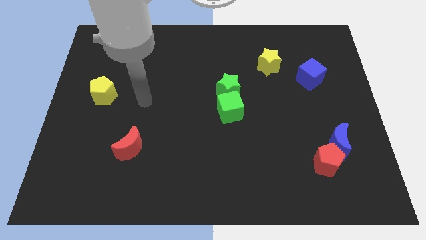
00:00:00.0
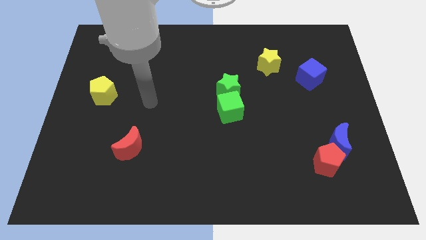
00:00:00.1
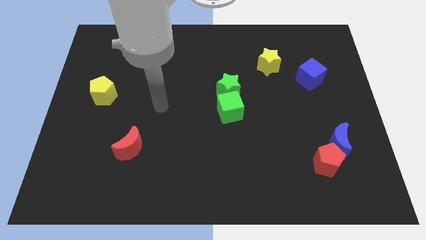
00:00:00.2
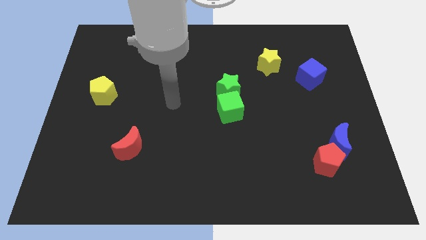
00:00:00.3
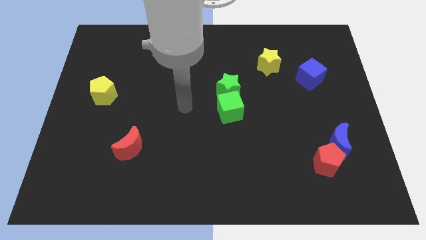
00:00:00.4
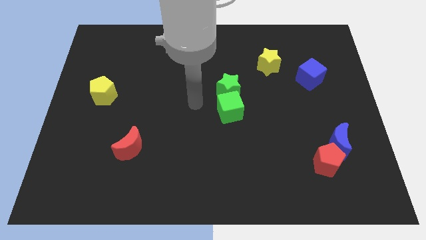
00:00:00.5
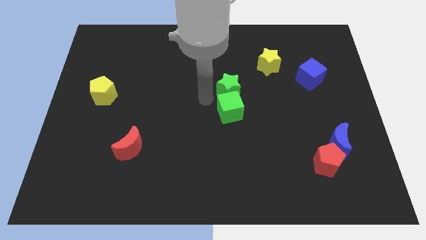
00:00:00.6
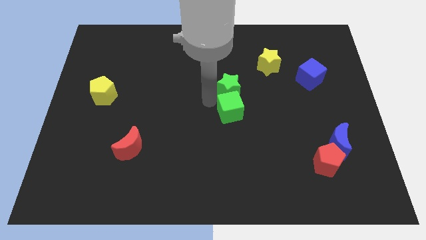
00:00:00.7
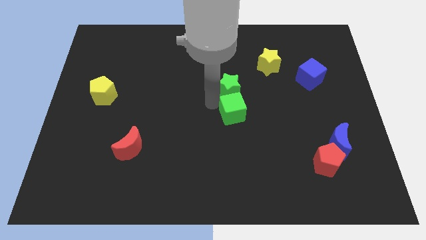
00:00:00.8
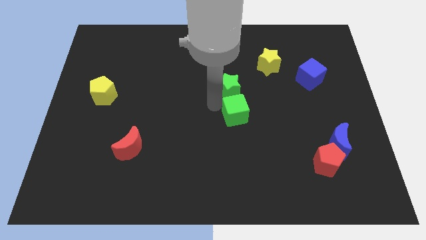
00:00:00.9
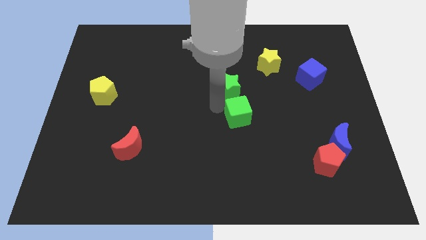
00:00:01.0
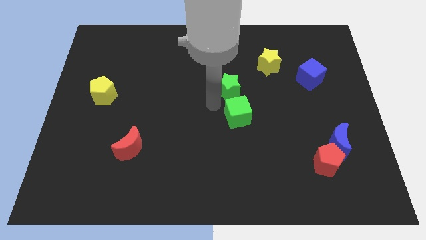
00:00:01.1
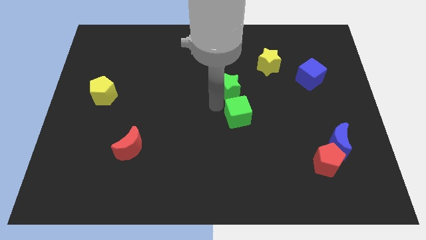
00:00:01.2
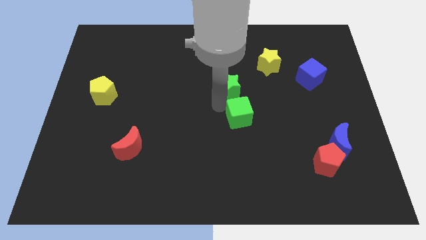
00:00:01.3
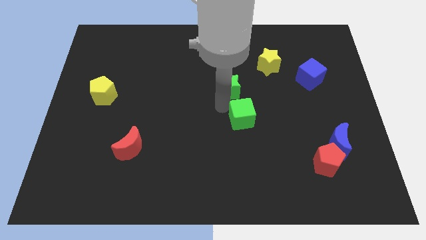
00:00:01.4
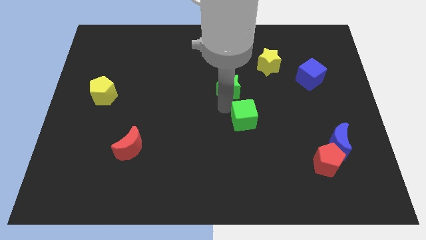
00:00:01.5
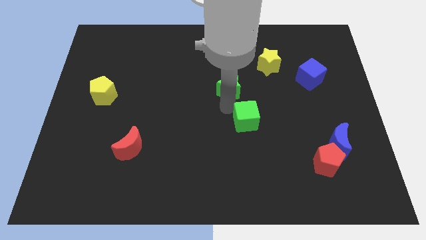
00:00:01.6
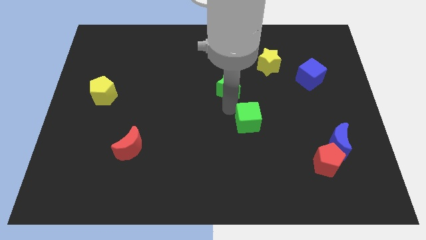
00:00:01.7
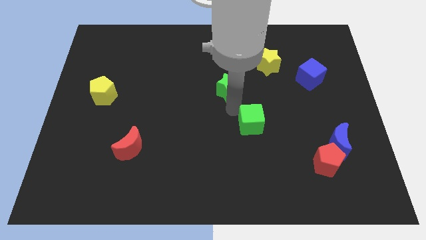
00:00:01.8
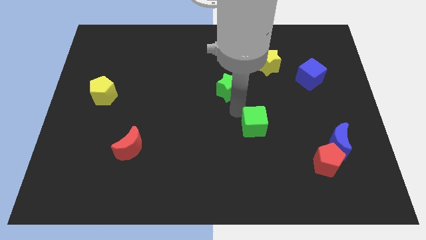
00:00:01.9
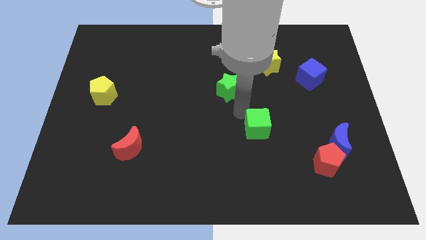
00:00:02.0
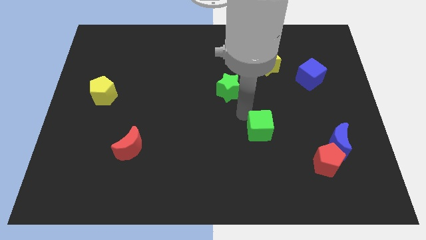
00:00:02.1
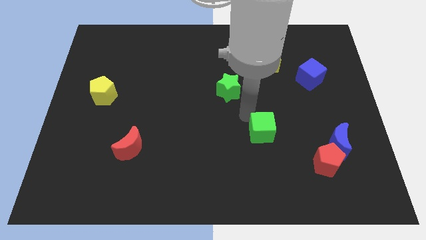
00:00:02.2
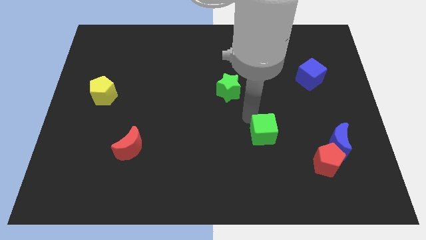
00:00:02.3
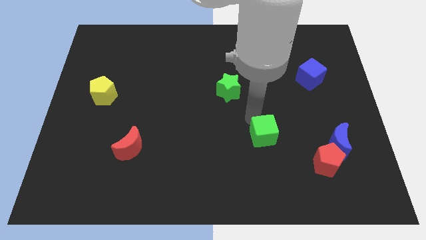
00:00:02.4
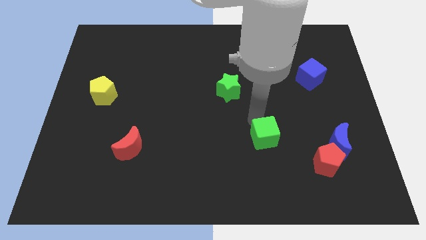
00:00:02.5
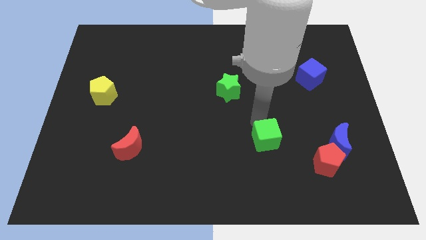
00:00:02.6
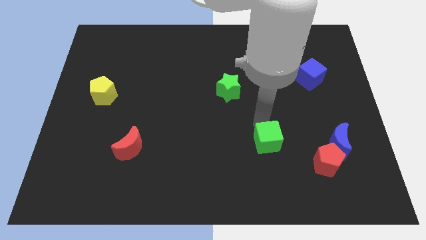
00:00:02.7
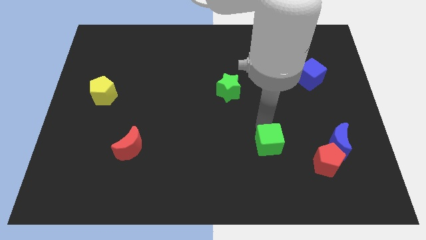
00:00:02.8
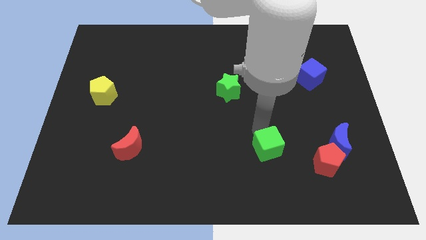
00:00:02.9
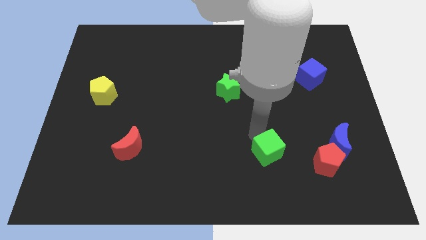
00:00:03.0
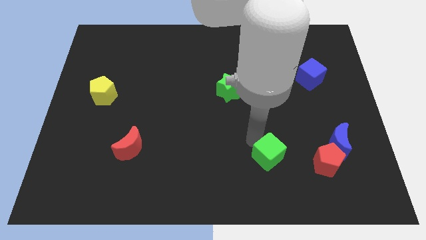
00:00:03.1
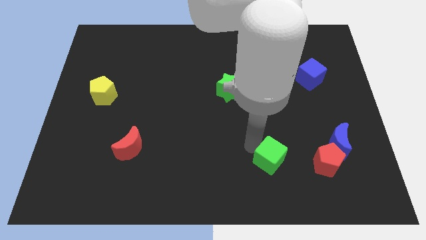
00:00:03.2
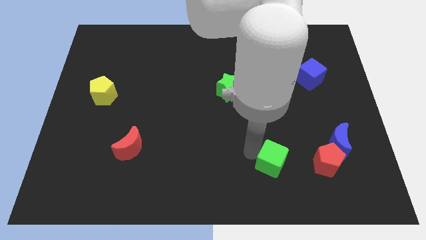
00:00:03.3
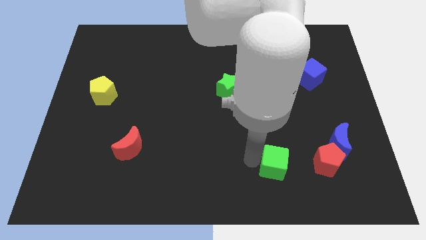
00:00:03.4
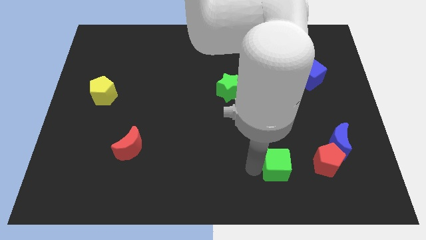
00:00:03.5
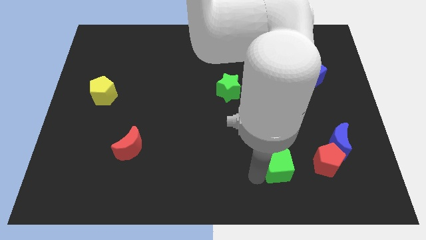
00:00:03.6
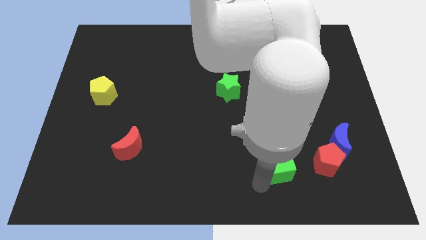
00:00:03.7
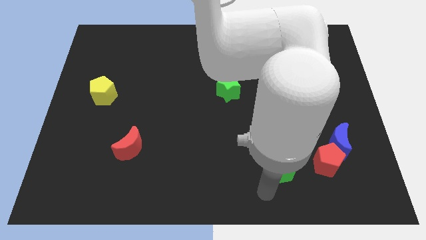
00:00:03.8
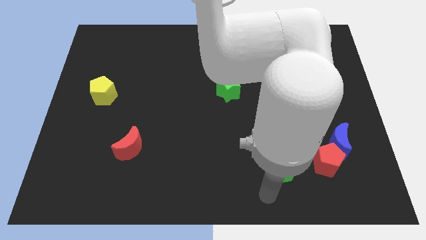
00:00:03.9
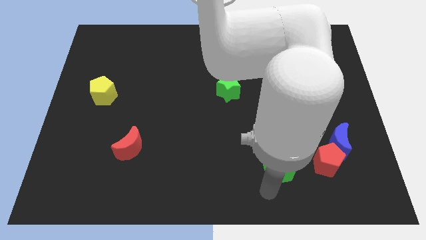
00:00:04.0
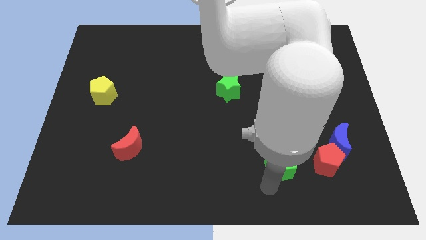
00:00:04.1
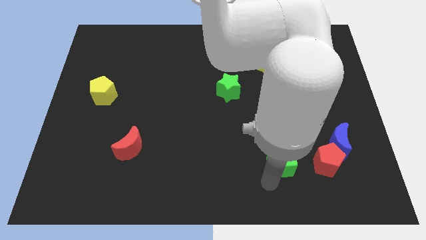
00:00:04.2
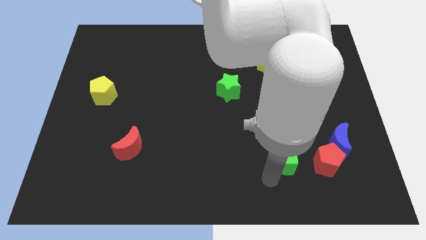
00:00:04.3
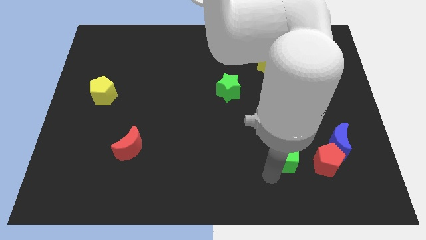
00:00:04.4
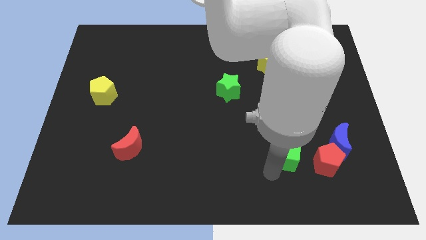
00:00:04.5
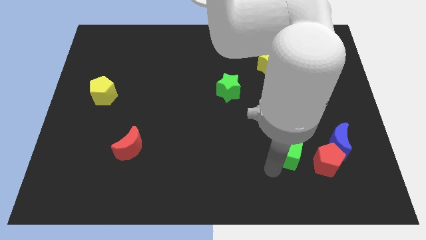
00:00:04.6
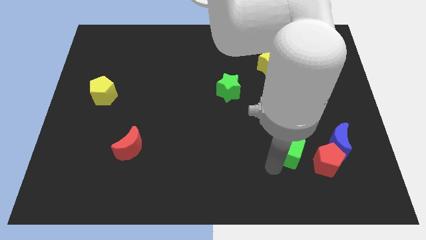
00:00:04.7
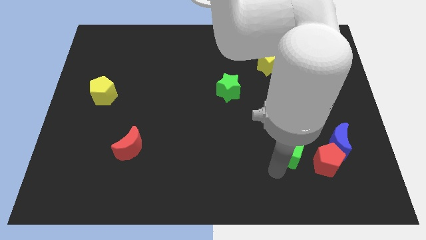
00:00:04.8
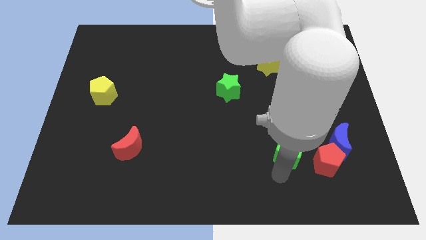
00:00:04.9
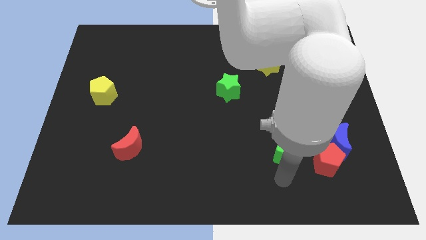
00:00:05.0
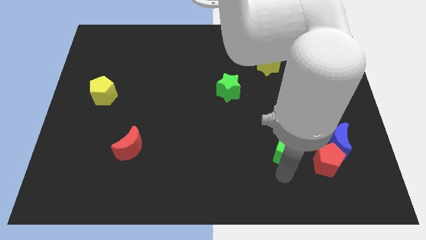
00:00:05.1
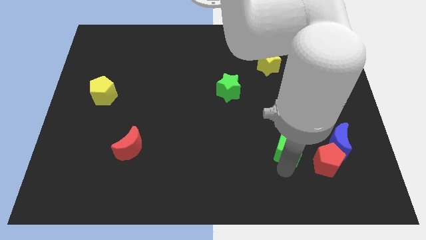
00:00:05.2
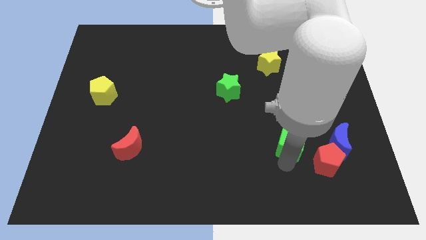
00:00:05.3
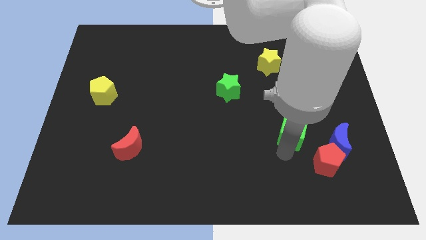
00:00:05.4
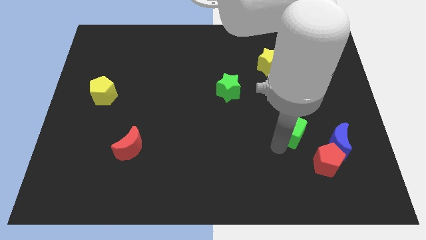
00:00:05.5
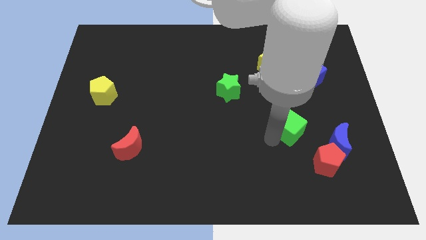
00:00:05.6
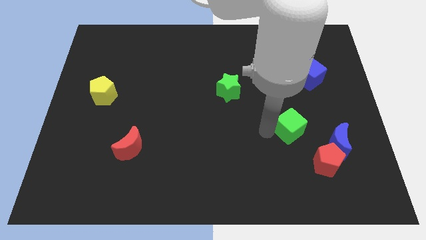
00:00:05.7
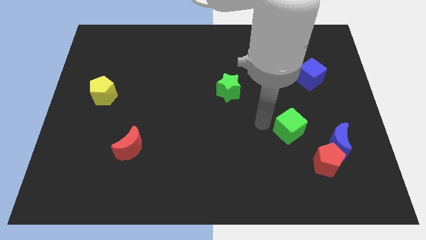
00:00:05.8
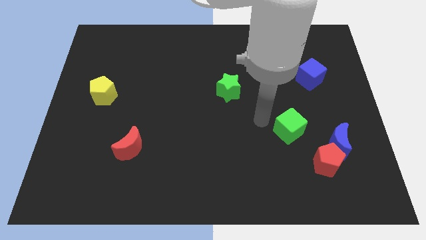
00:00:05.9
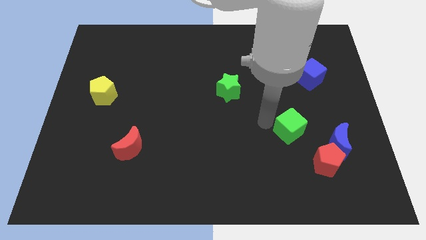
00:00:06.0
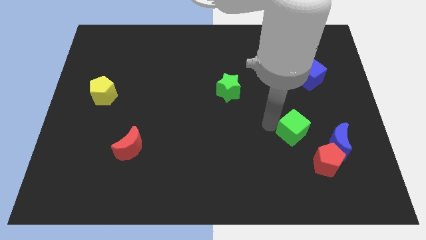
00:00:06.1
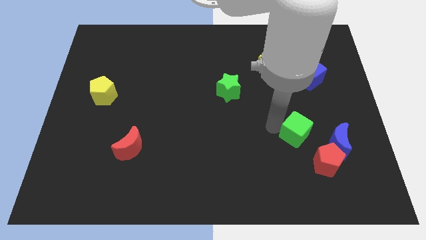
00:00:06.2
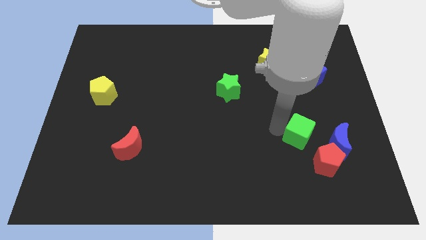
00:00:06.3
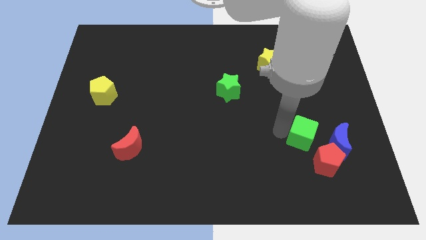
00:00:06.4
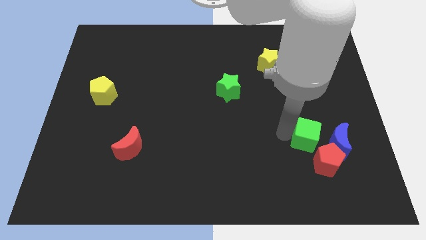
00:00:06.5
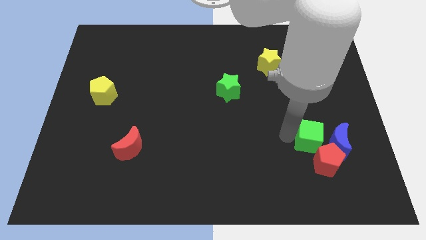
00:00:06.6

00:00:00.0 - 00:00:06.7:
slide the green cube next to the blue moon

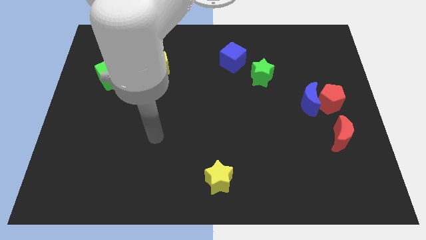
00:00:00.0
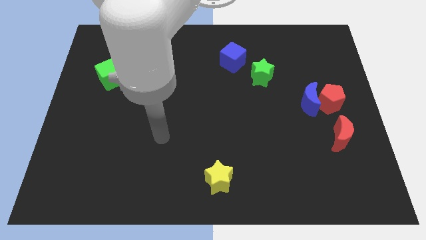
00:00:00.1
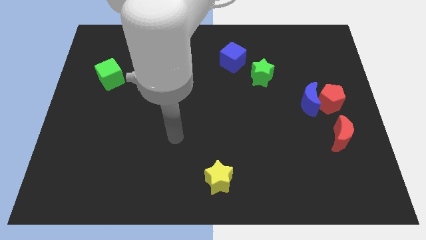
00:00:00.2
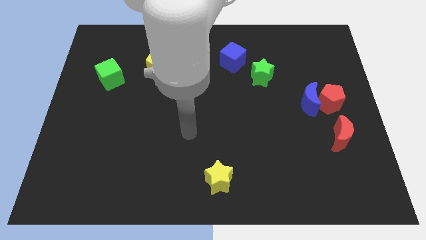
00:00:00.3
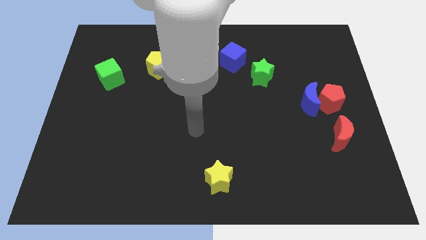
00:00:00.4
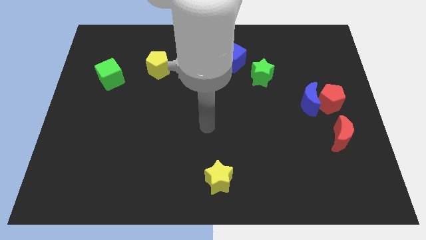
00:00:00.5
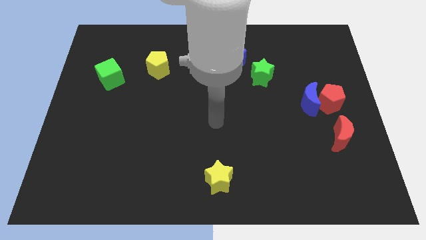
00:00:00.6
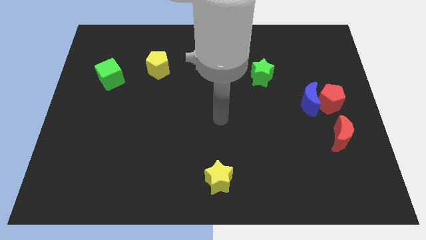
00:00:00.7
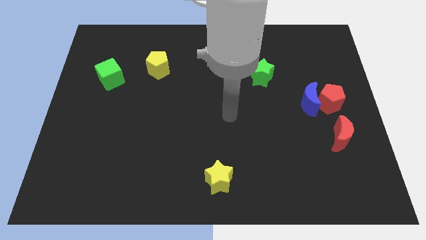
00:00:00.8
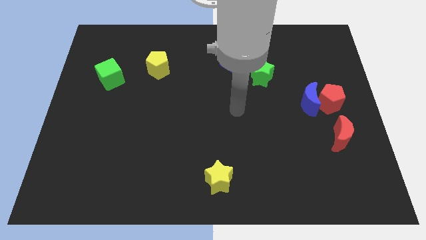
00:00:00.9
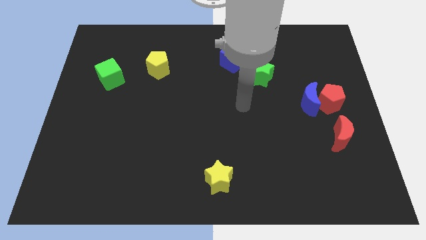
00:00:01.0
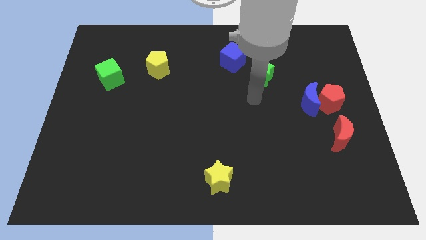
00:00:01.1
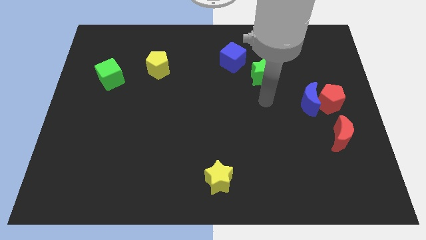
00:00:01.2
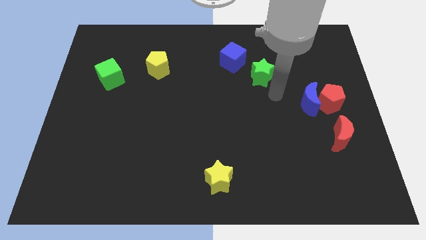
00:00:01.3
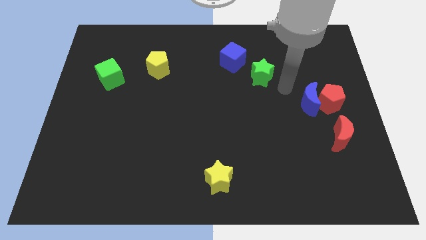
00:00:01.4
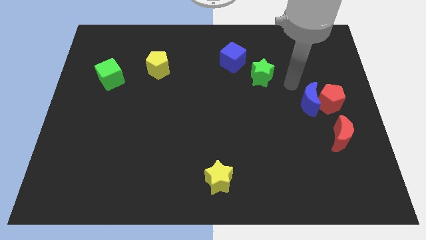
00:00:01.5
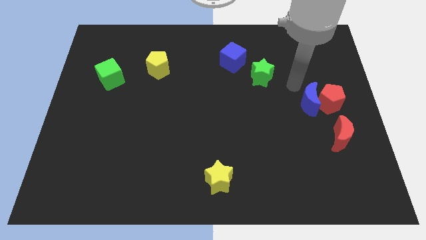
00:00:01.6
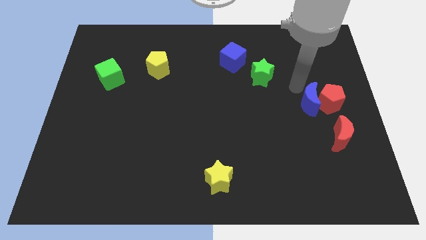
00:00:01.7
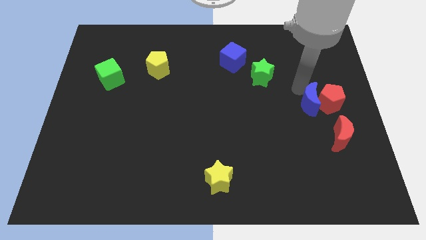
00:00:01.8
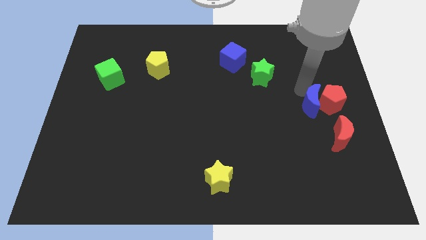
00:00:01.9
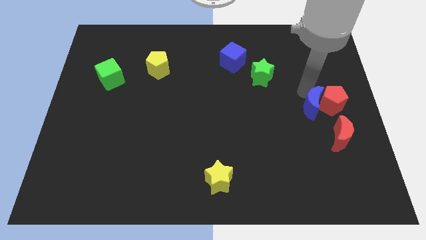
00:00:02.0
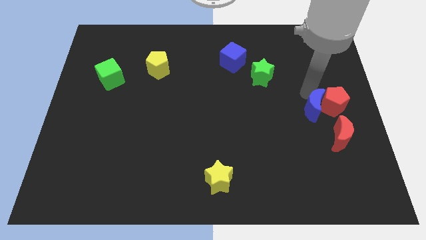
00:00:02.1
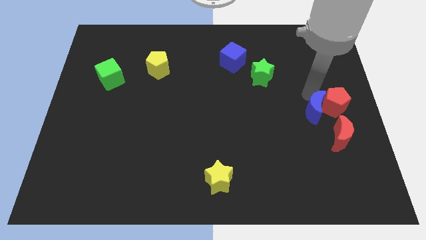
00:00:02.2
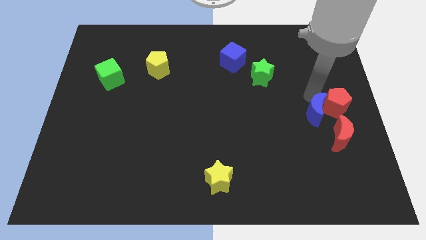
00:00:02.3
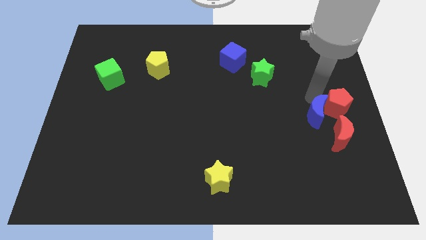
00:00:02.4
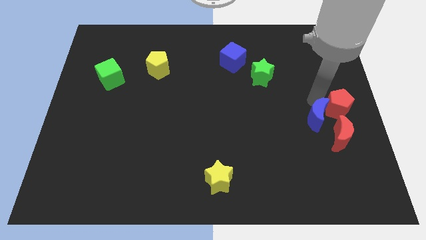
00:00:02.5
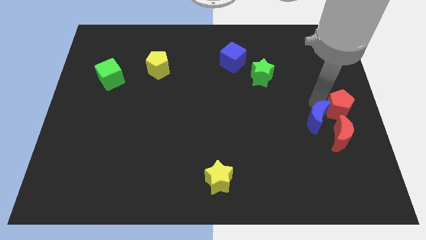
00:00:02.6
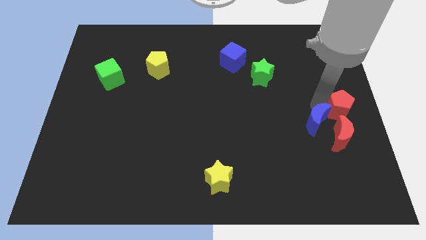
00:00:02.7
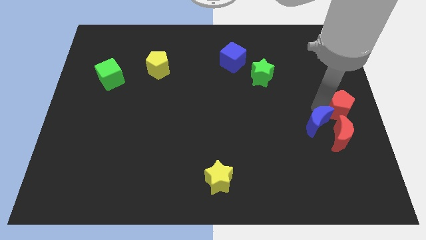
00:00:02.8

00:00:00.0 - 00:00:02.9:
push the blue moon to the red moon
